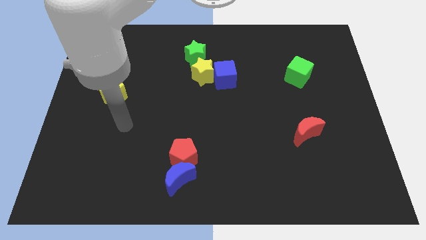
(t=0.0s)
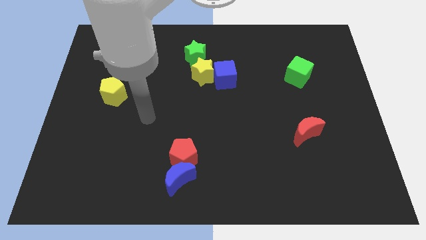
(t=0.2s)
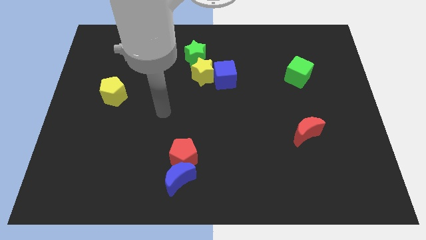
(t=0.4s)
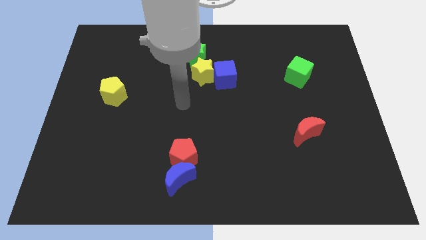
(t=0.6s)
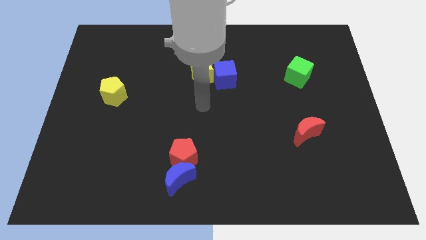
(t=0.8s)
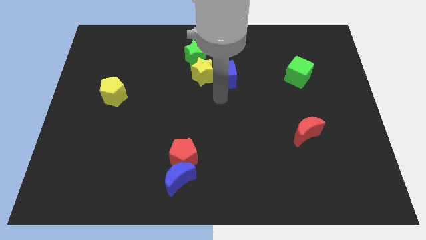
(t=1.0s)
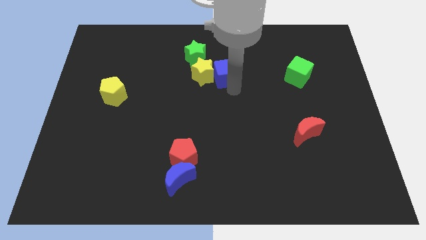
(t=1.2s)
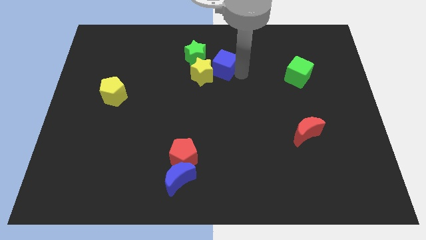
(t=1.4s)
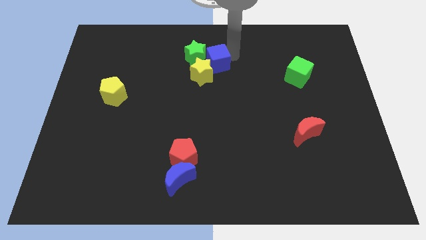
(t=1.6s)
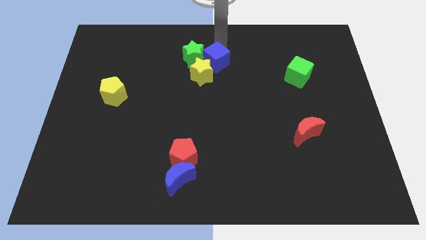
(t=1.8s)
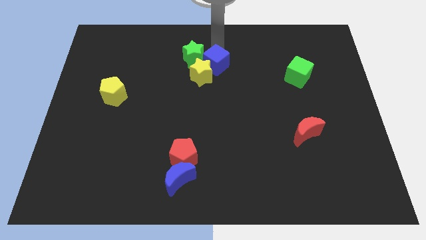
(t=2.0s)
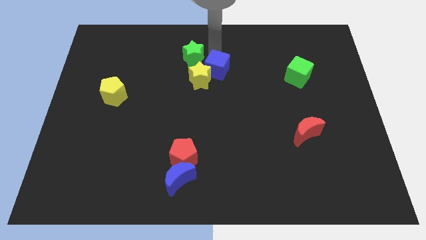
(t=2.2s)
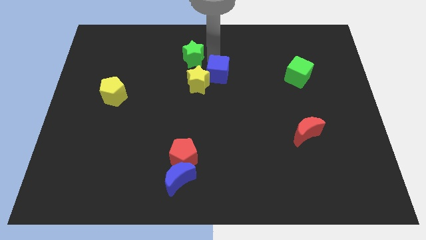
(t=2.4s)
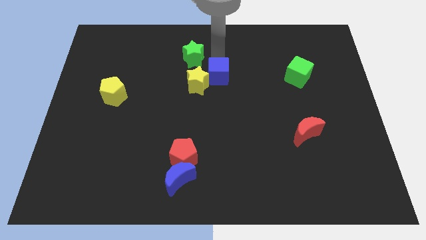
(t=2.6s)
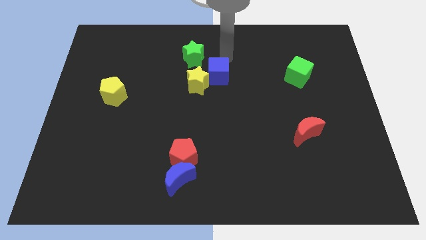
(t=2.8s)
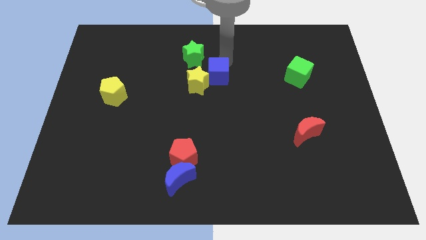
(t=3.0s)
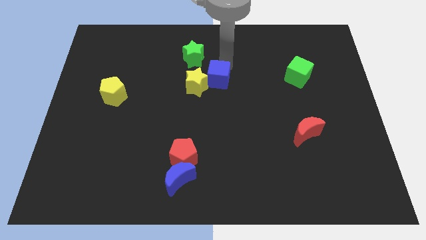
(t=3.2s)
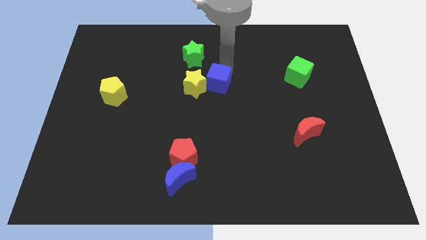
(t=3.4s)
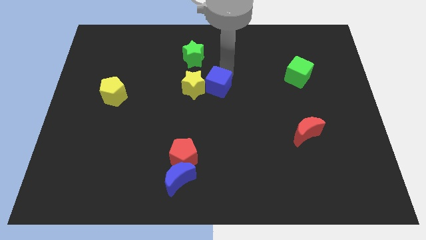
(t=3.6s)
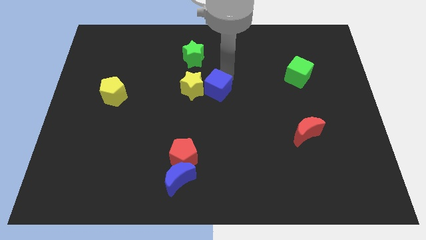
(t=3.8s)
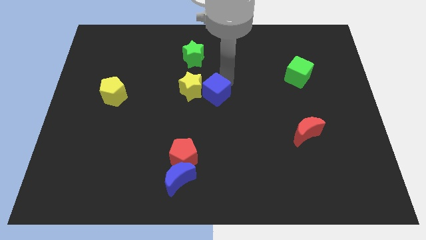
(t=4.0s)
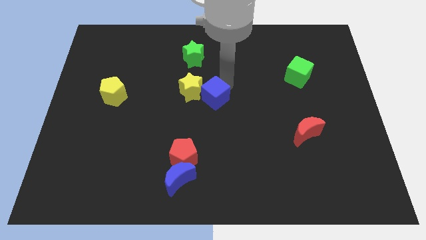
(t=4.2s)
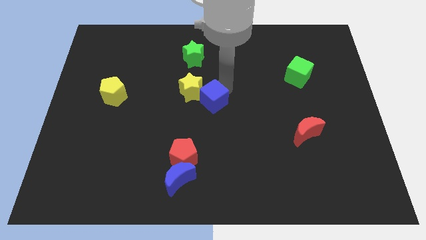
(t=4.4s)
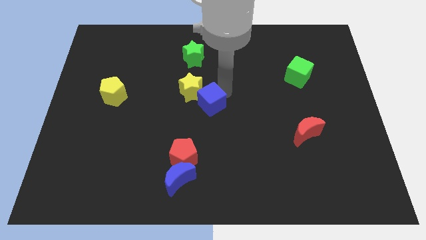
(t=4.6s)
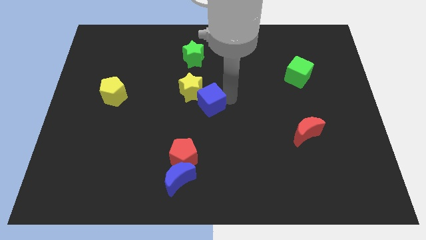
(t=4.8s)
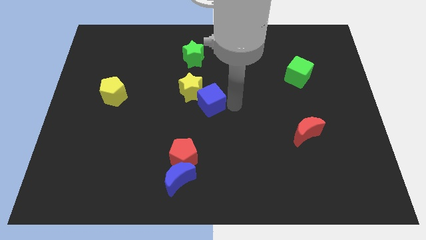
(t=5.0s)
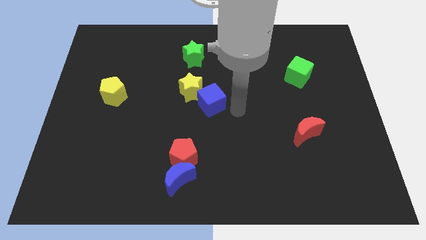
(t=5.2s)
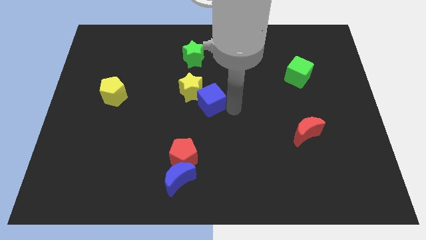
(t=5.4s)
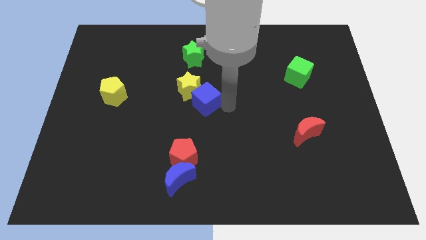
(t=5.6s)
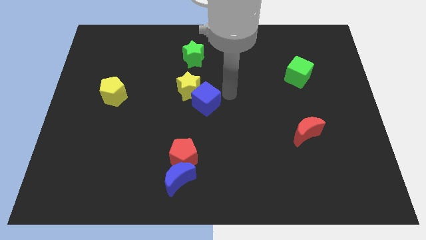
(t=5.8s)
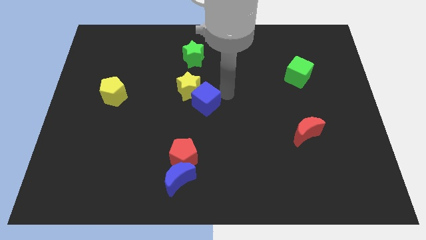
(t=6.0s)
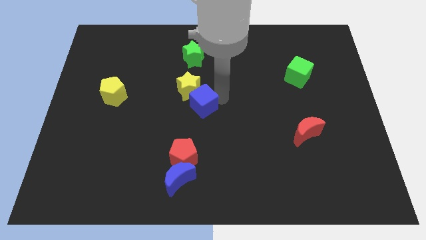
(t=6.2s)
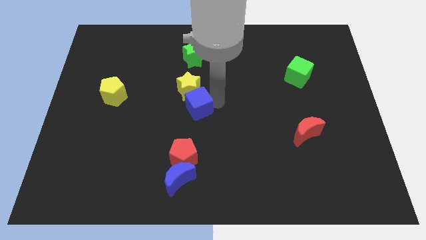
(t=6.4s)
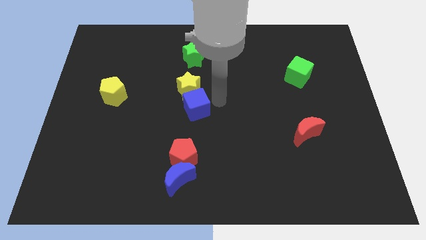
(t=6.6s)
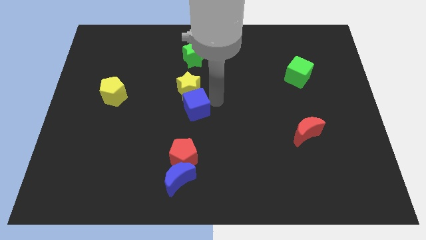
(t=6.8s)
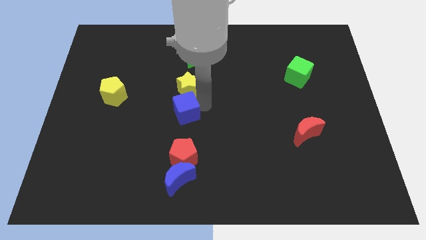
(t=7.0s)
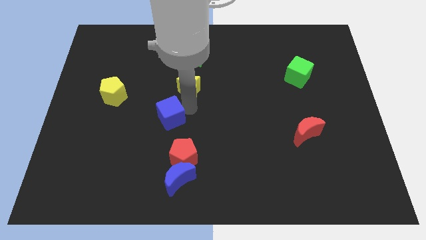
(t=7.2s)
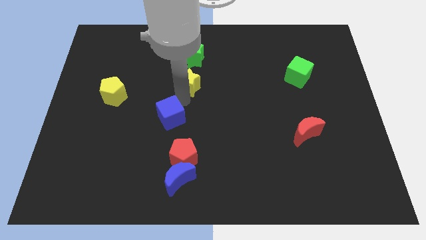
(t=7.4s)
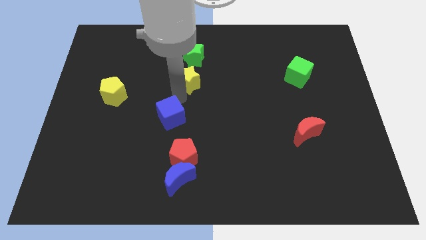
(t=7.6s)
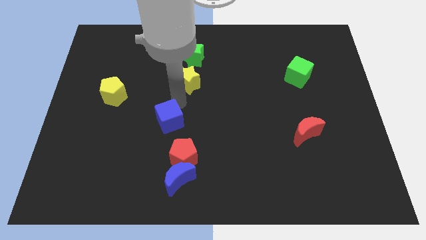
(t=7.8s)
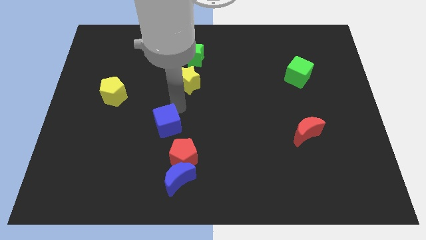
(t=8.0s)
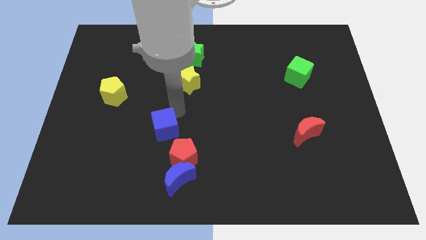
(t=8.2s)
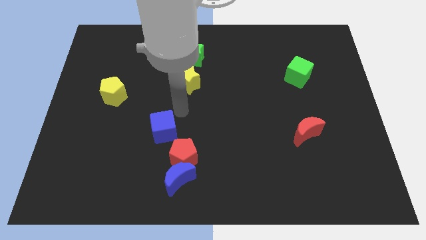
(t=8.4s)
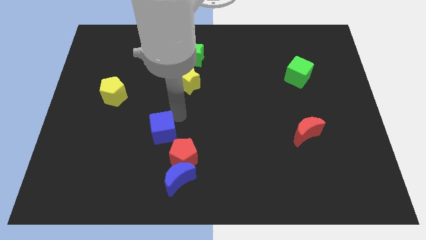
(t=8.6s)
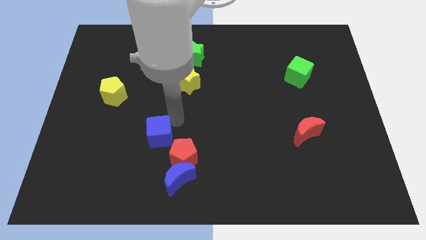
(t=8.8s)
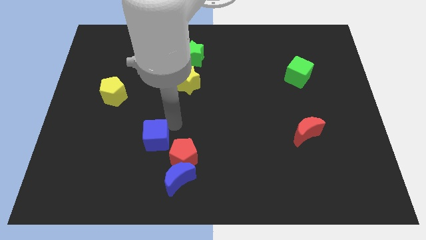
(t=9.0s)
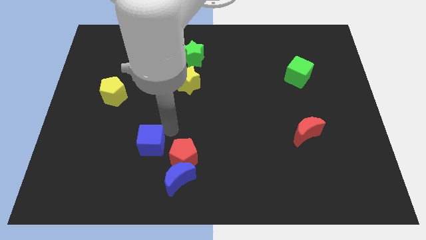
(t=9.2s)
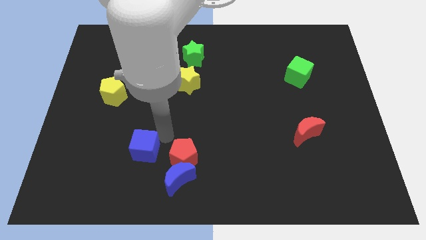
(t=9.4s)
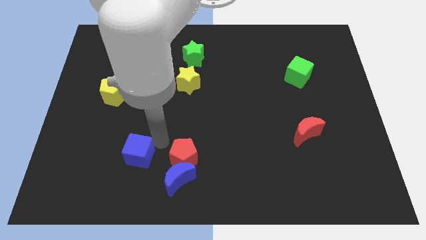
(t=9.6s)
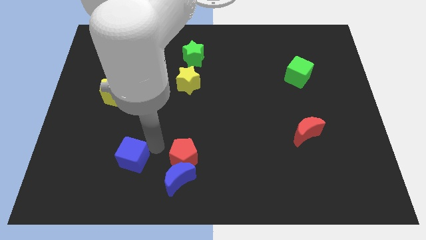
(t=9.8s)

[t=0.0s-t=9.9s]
put the blue cube to the left of the blue moon

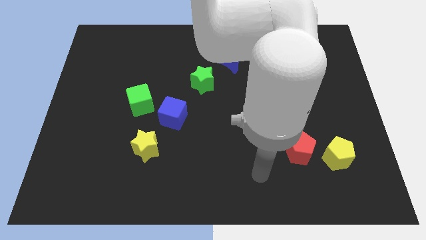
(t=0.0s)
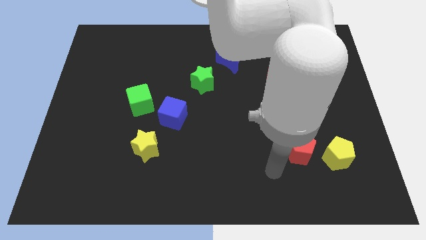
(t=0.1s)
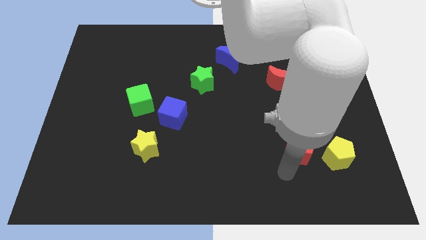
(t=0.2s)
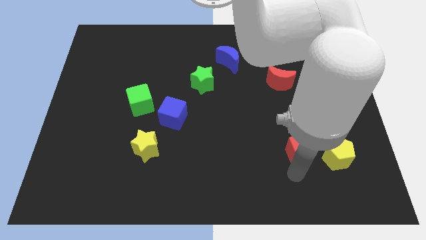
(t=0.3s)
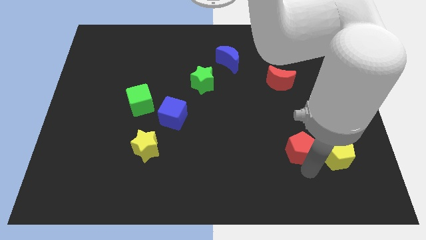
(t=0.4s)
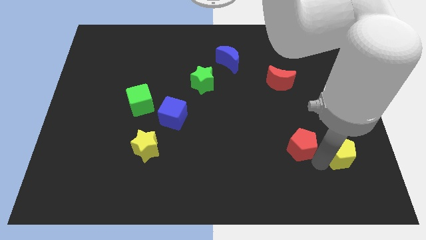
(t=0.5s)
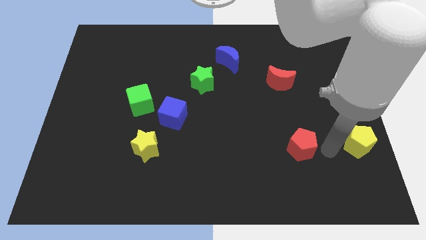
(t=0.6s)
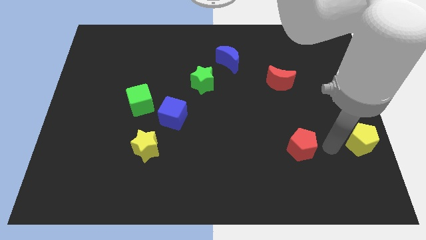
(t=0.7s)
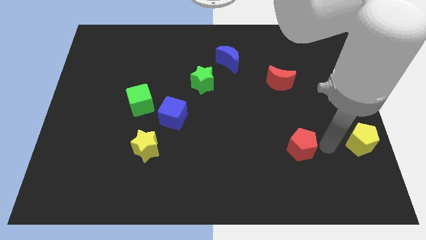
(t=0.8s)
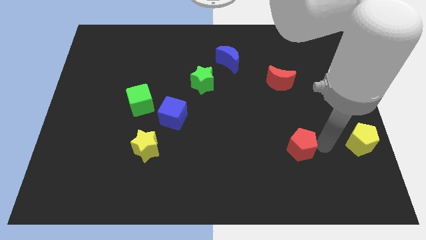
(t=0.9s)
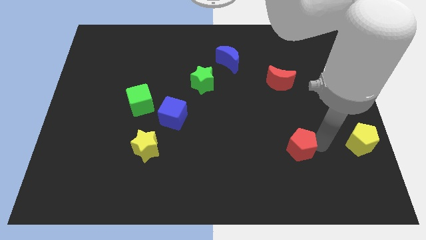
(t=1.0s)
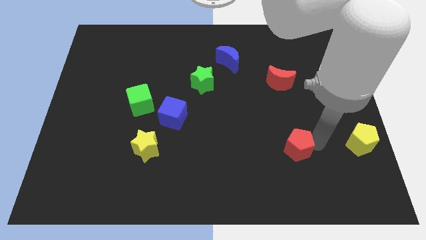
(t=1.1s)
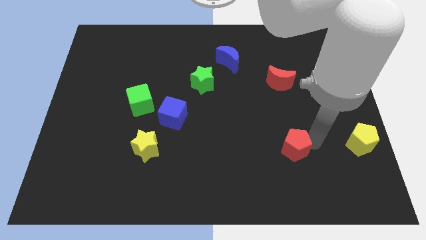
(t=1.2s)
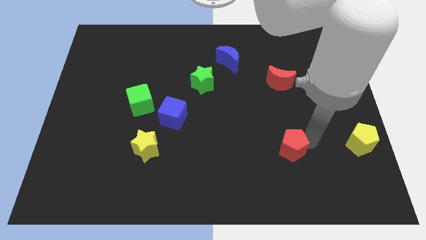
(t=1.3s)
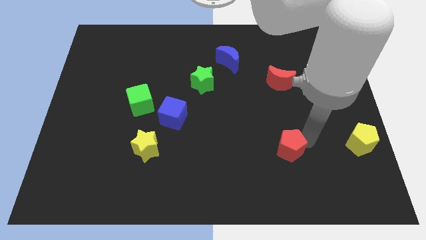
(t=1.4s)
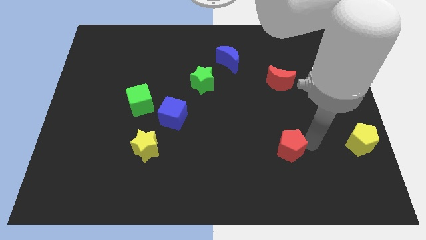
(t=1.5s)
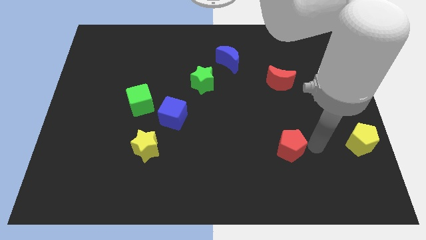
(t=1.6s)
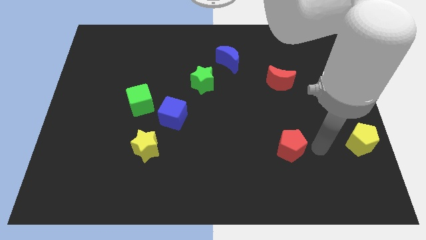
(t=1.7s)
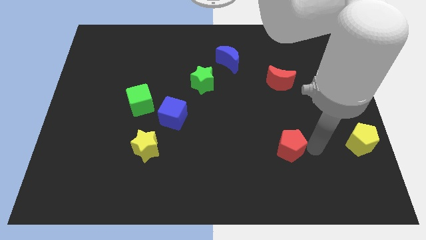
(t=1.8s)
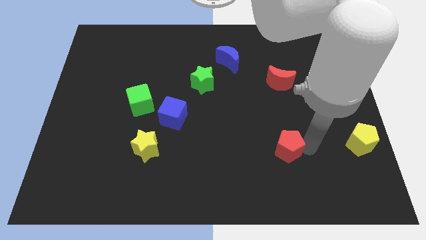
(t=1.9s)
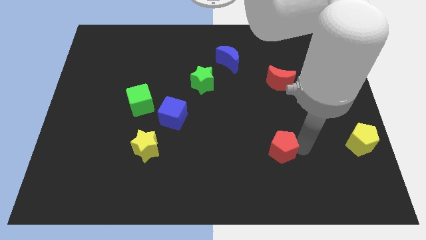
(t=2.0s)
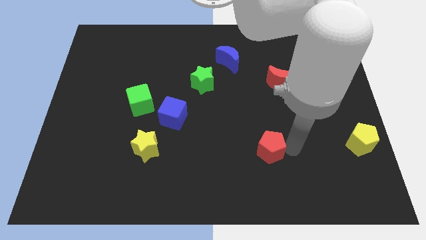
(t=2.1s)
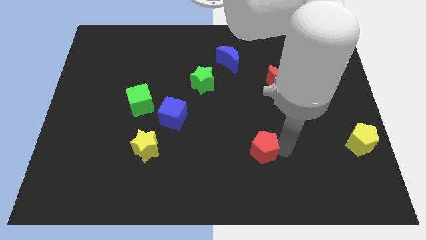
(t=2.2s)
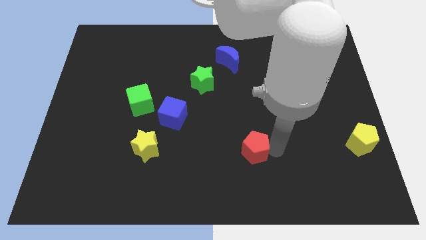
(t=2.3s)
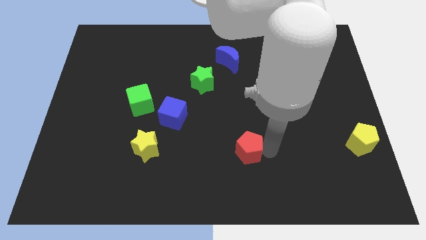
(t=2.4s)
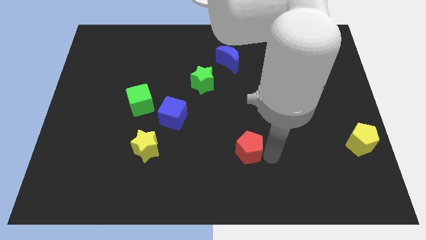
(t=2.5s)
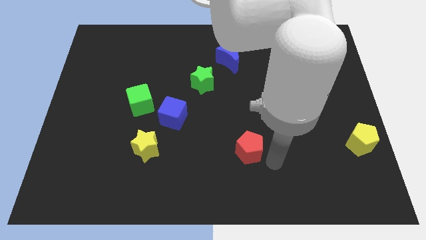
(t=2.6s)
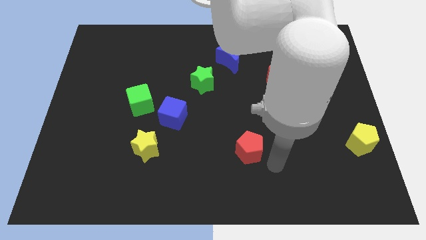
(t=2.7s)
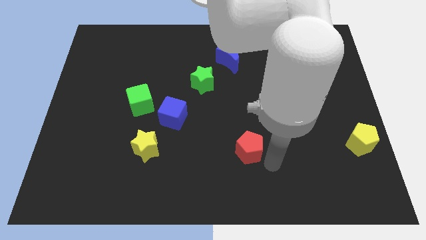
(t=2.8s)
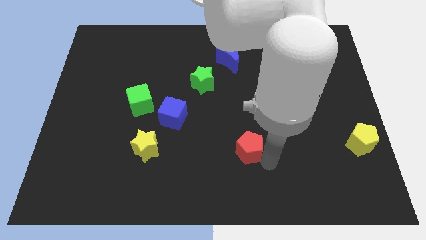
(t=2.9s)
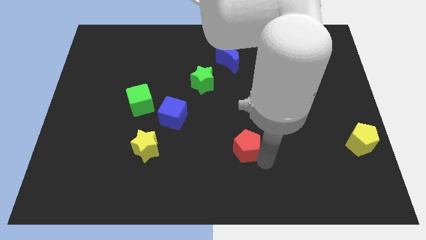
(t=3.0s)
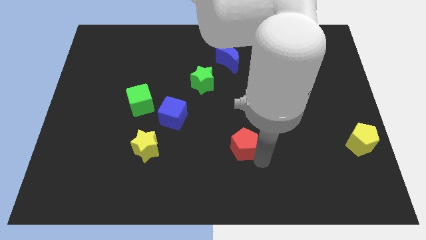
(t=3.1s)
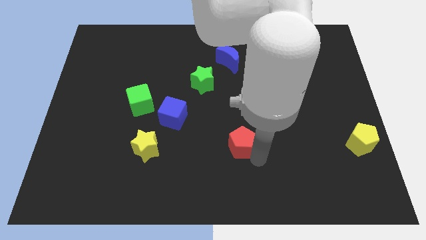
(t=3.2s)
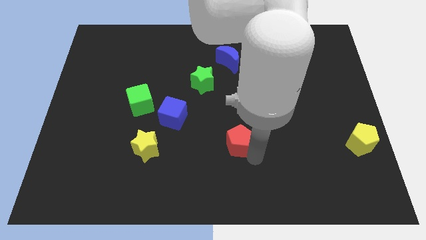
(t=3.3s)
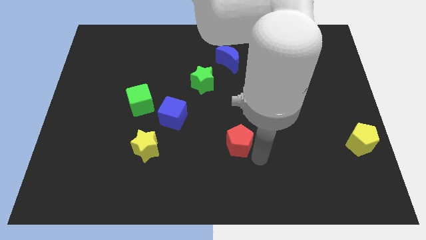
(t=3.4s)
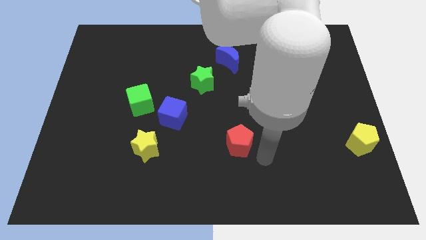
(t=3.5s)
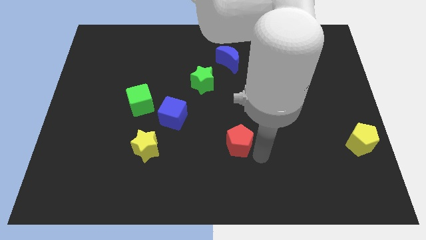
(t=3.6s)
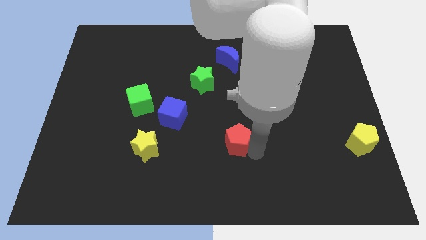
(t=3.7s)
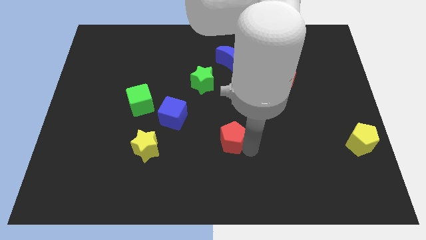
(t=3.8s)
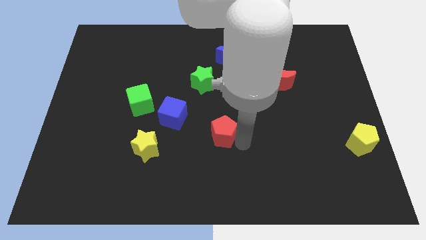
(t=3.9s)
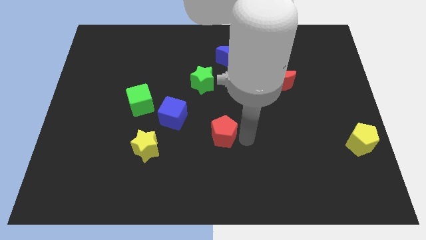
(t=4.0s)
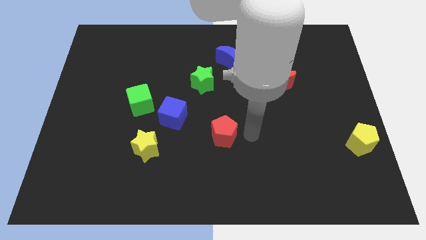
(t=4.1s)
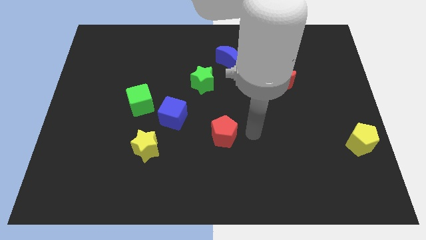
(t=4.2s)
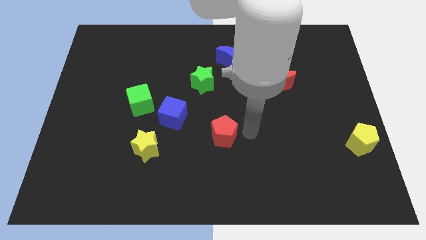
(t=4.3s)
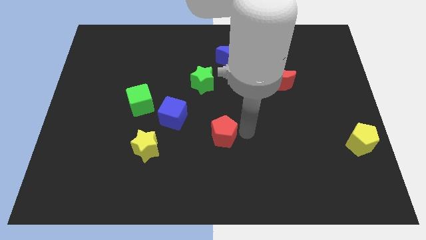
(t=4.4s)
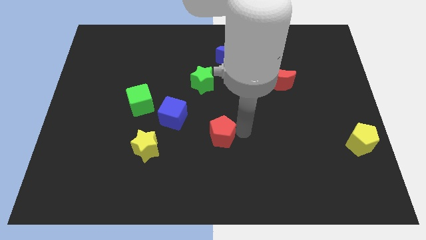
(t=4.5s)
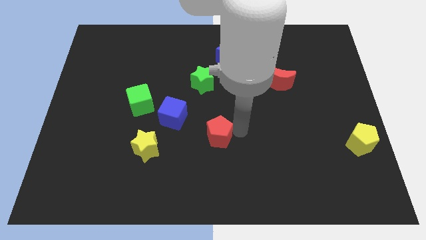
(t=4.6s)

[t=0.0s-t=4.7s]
push the red pentagon to the bottom right of the blue cube
